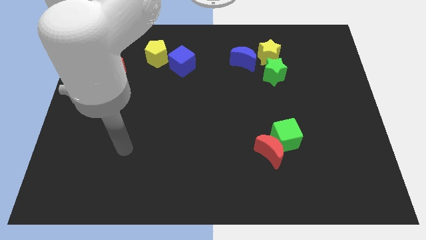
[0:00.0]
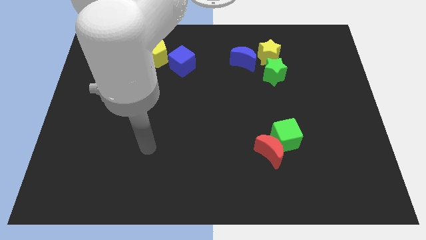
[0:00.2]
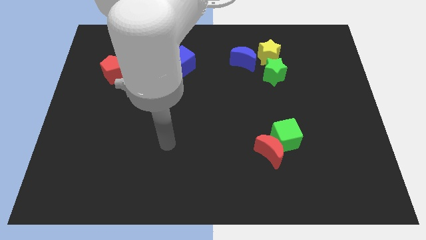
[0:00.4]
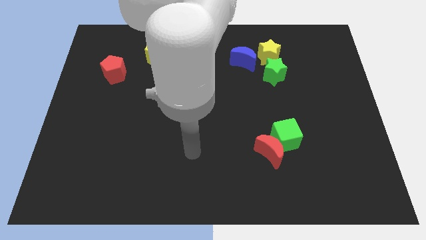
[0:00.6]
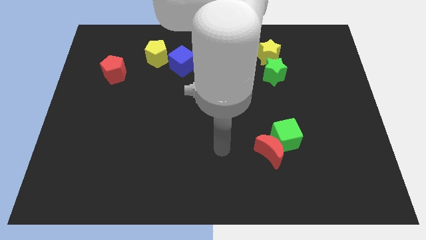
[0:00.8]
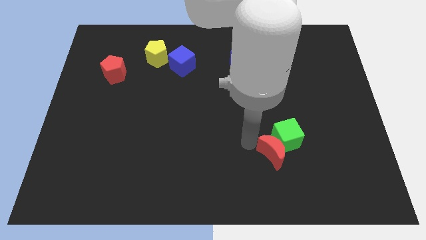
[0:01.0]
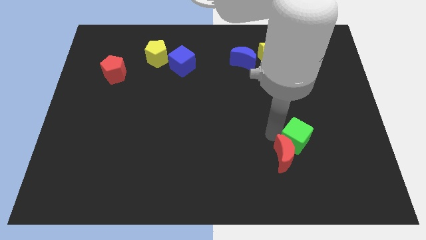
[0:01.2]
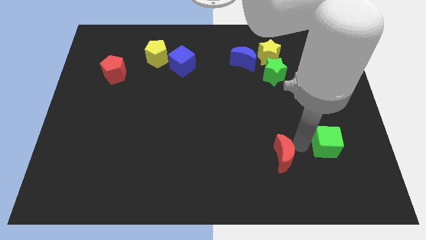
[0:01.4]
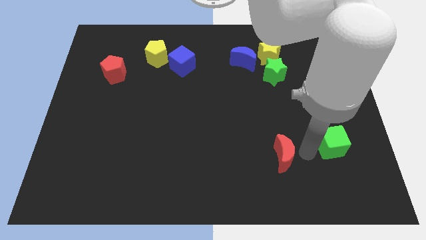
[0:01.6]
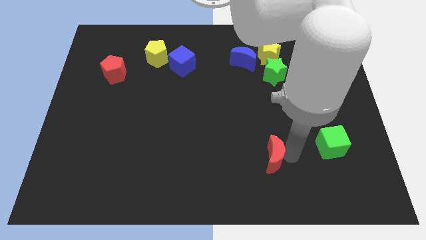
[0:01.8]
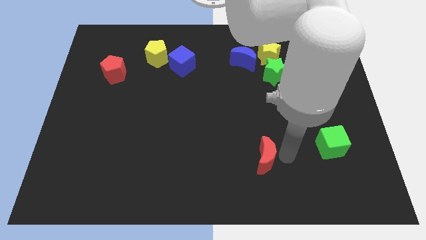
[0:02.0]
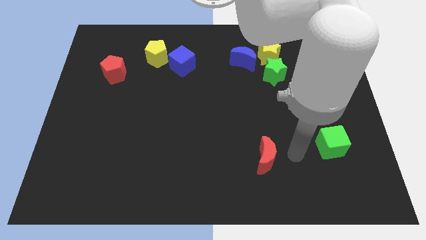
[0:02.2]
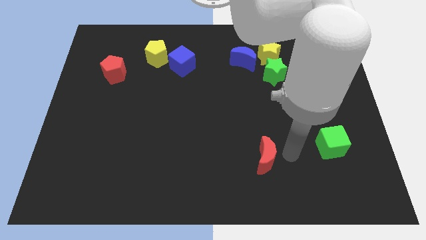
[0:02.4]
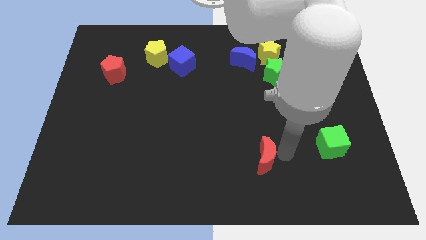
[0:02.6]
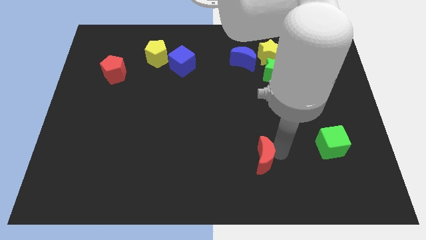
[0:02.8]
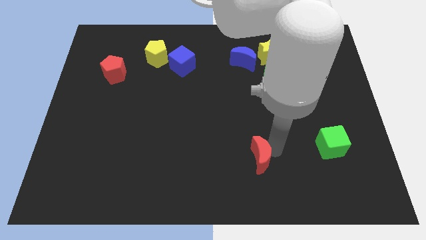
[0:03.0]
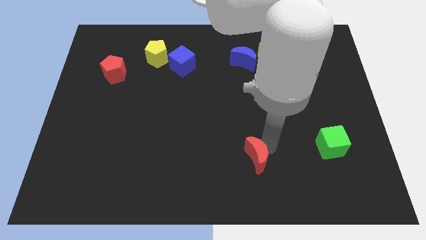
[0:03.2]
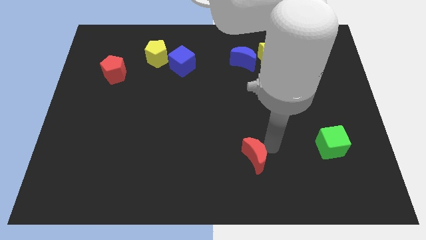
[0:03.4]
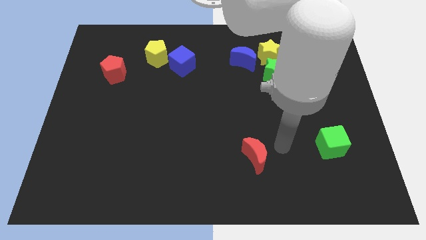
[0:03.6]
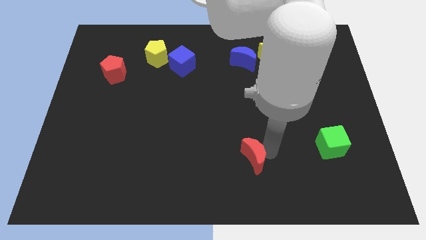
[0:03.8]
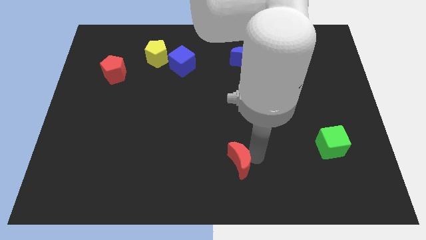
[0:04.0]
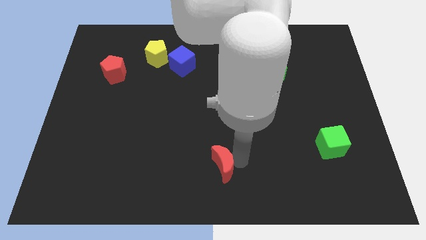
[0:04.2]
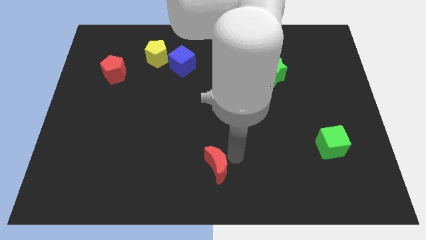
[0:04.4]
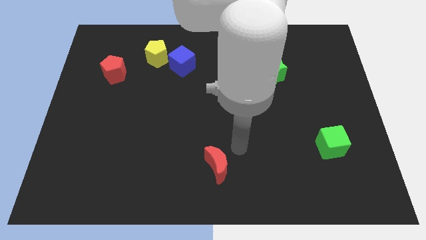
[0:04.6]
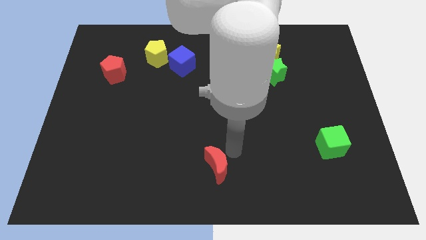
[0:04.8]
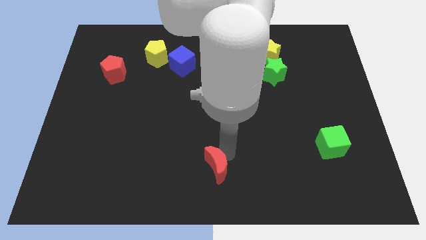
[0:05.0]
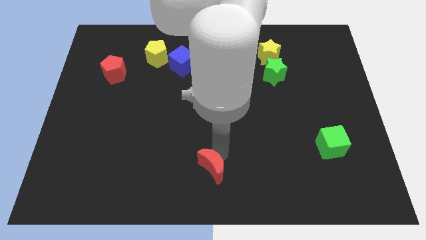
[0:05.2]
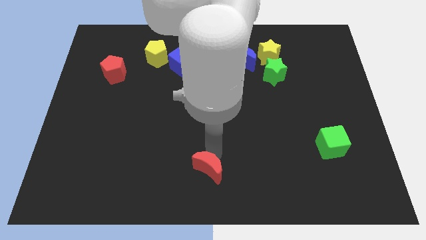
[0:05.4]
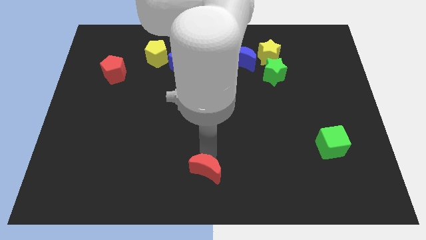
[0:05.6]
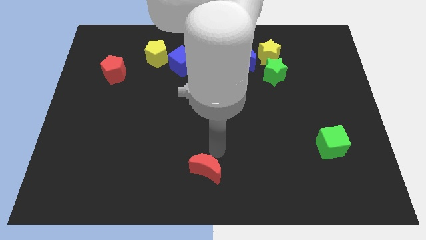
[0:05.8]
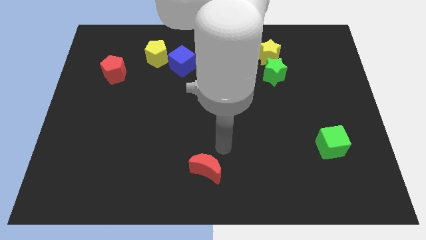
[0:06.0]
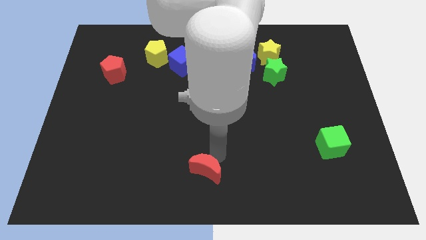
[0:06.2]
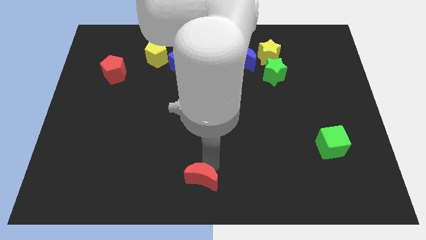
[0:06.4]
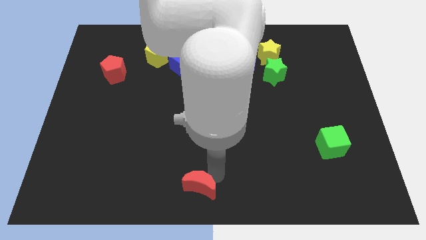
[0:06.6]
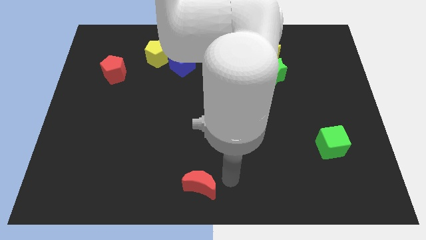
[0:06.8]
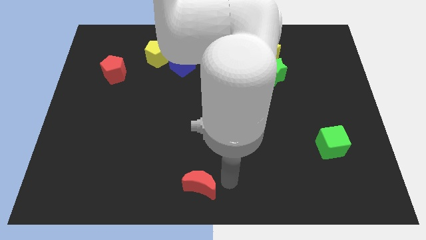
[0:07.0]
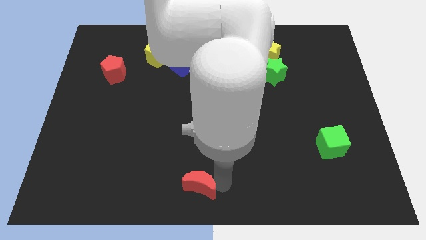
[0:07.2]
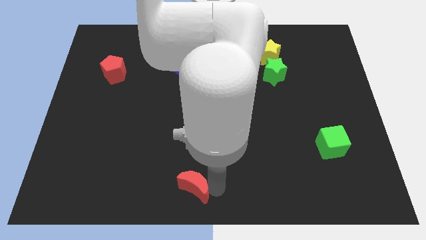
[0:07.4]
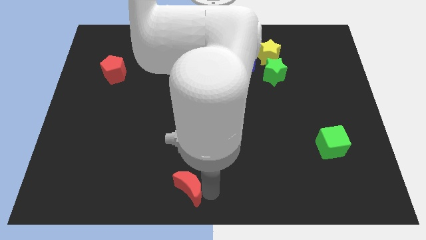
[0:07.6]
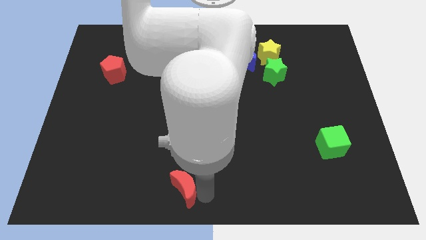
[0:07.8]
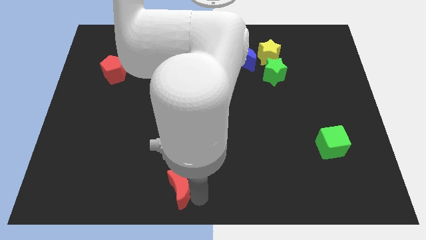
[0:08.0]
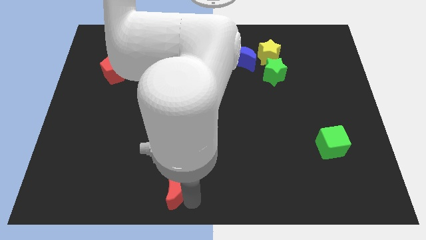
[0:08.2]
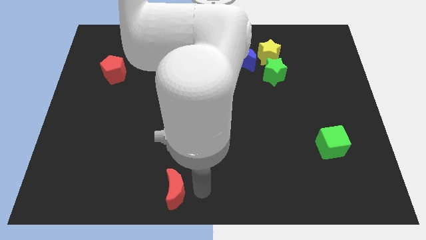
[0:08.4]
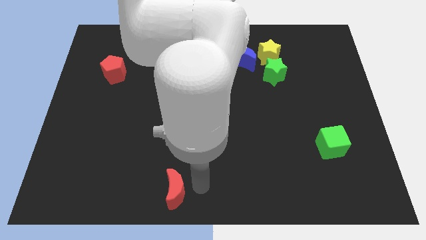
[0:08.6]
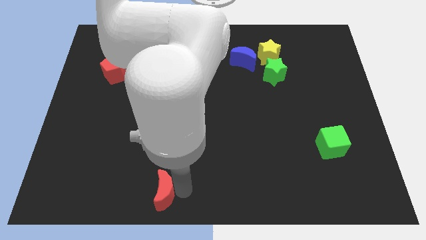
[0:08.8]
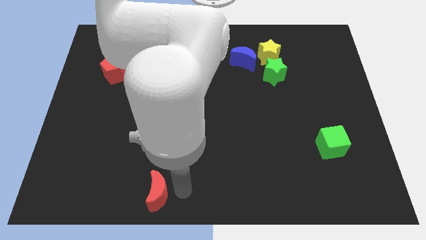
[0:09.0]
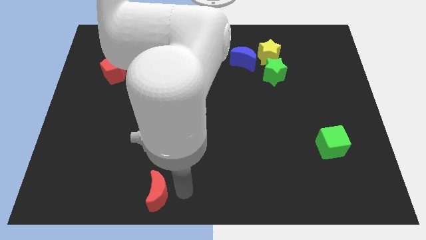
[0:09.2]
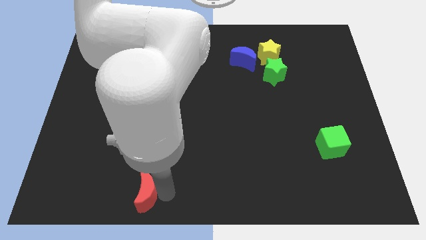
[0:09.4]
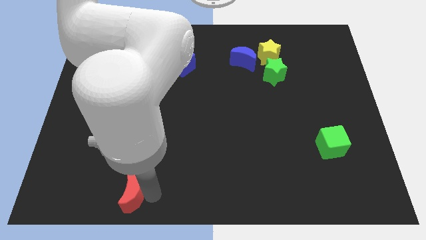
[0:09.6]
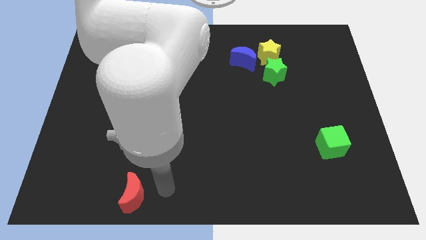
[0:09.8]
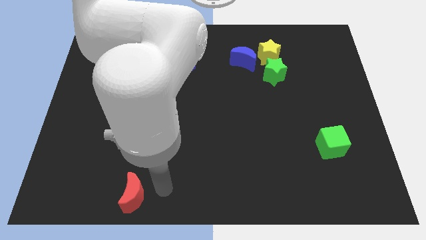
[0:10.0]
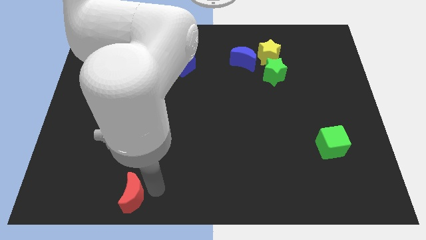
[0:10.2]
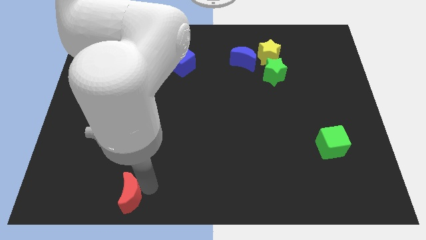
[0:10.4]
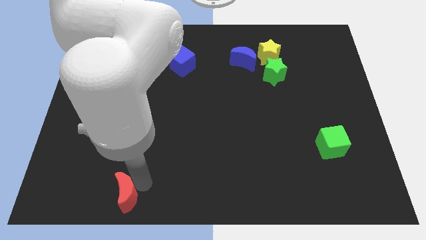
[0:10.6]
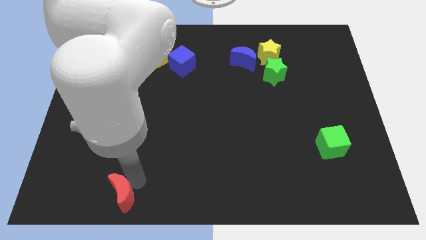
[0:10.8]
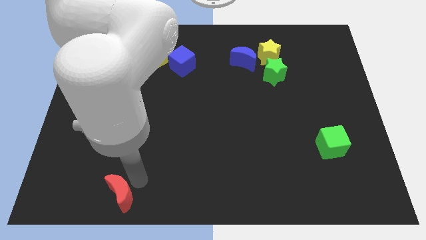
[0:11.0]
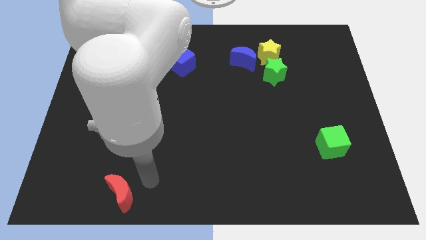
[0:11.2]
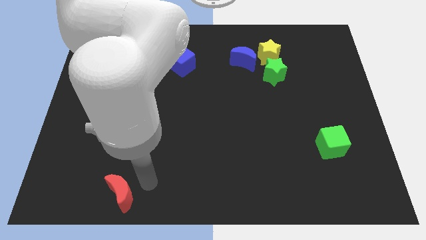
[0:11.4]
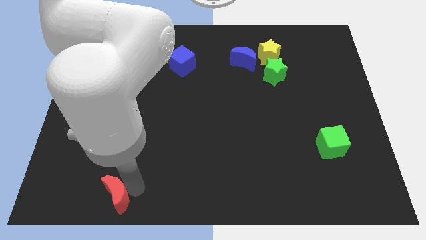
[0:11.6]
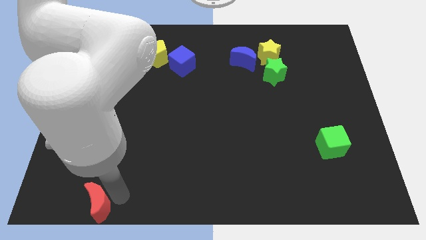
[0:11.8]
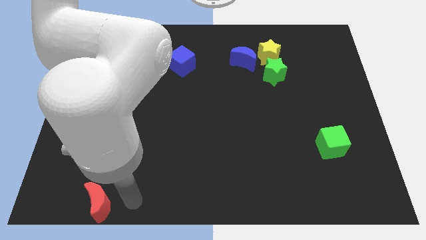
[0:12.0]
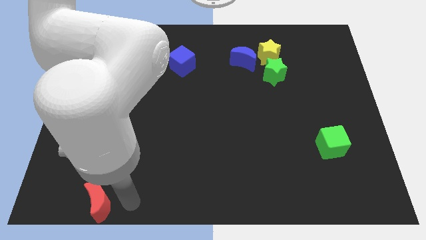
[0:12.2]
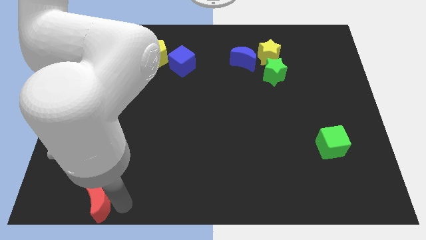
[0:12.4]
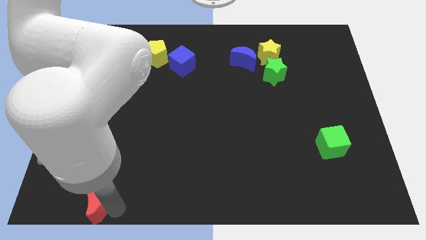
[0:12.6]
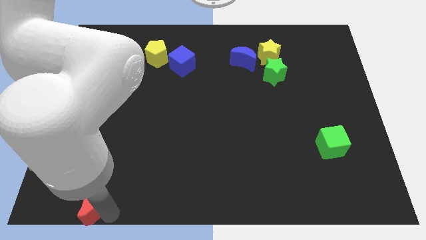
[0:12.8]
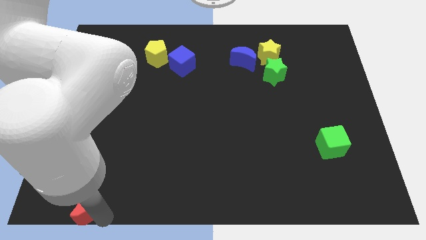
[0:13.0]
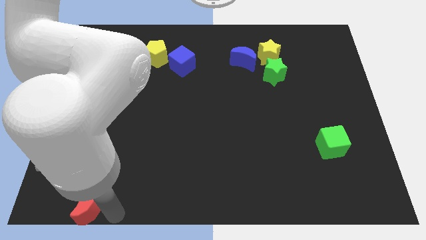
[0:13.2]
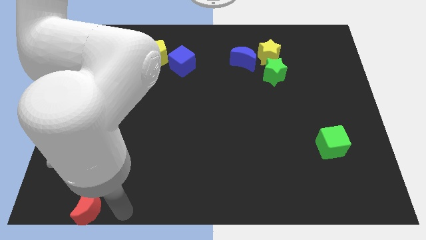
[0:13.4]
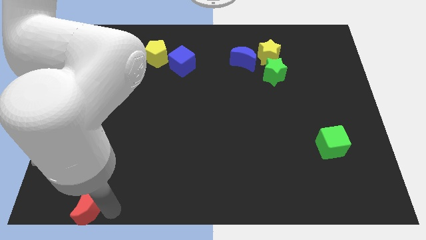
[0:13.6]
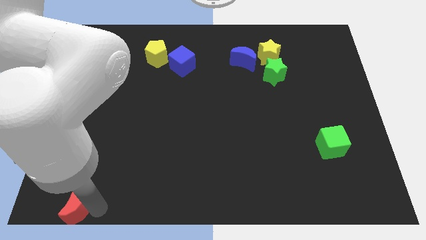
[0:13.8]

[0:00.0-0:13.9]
move the red moon to the bottom left of the board

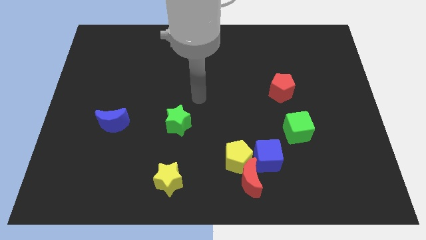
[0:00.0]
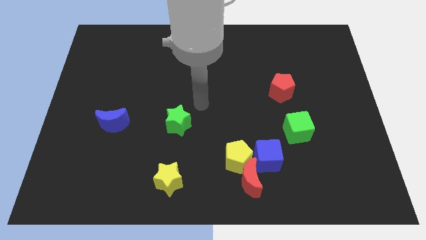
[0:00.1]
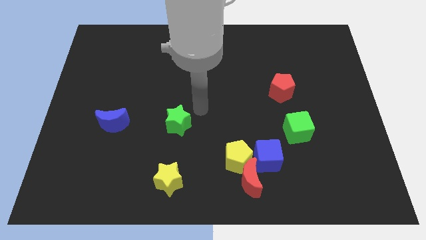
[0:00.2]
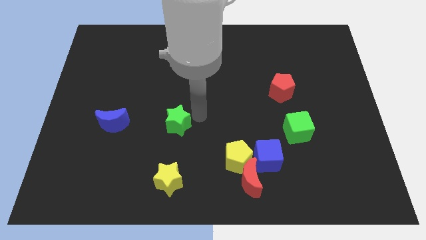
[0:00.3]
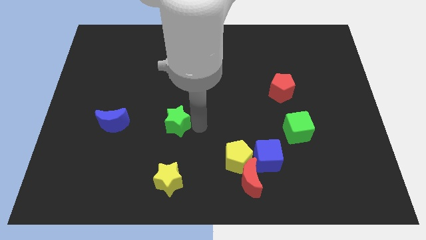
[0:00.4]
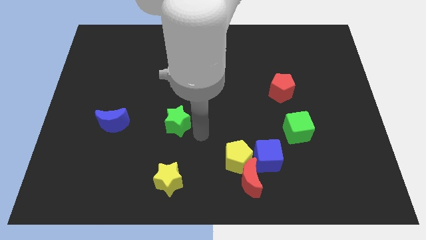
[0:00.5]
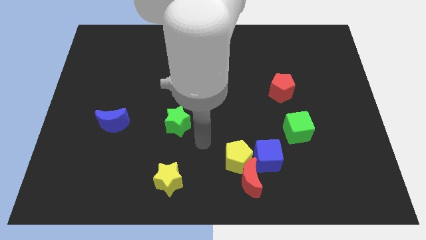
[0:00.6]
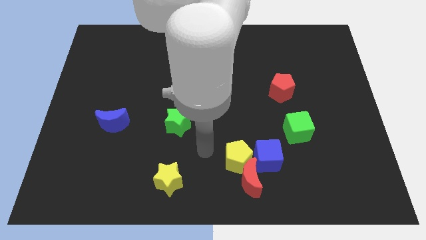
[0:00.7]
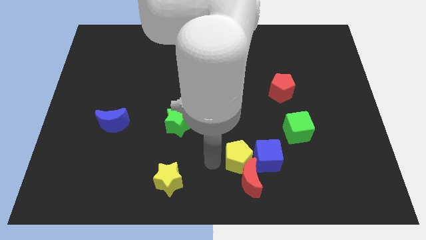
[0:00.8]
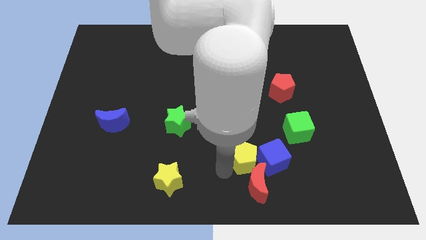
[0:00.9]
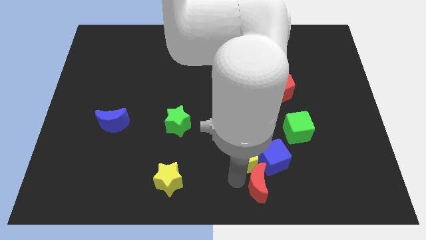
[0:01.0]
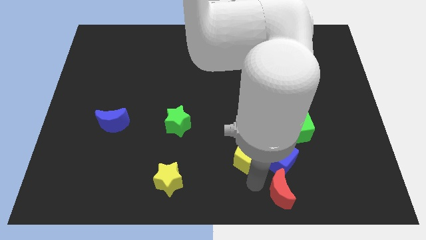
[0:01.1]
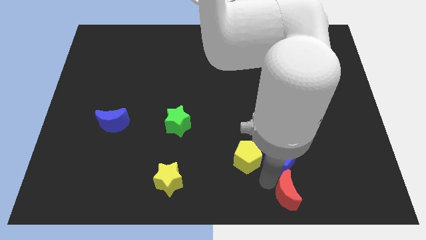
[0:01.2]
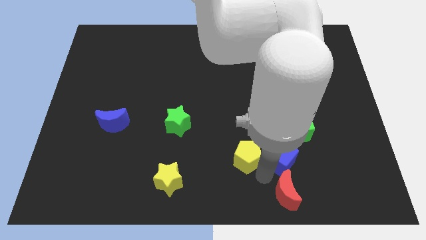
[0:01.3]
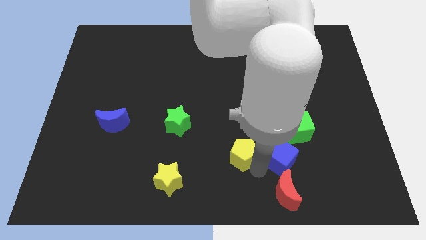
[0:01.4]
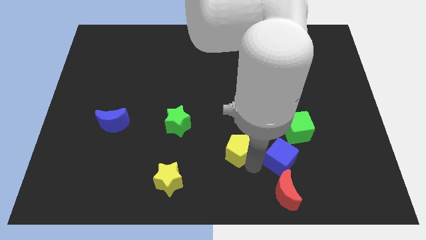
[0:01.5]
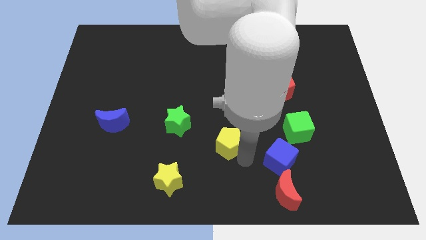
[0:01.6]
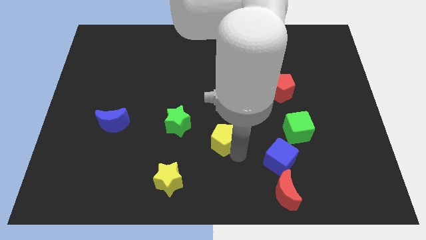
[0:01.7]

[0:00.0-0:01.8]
move the yellow pentagon to the middle
